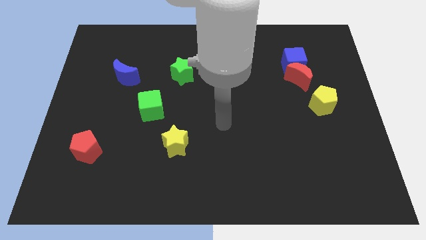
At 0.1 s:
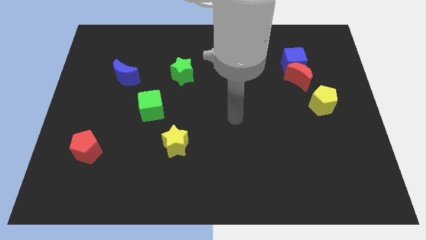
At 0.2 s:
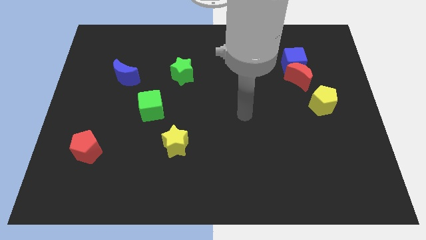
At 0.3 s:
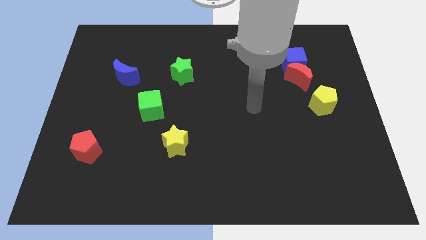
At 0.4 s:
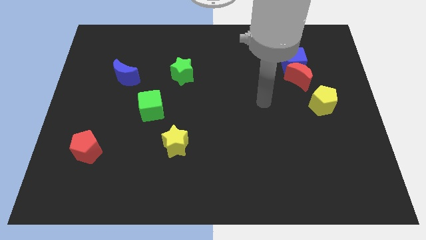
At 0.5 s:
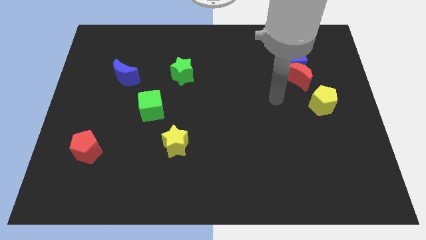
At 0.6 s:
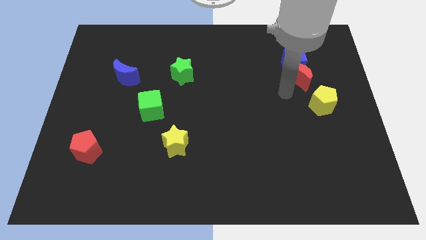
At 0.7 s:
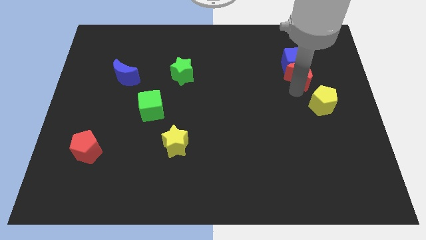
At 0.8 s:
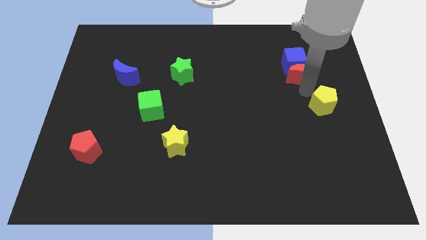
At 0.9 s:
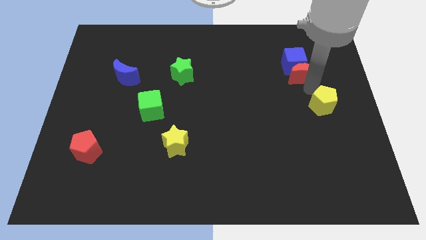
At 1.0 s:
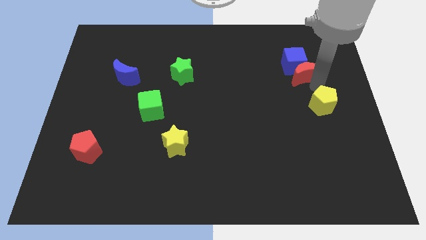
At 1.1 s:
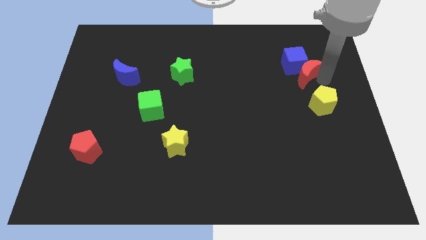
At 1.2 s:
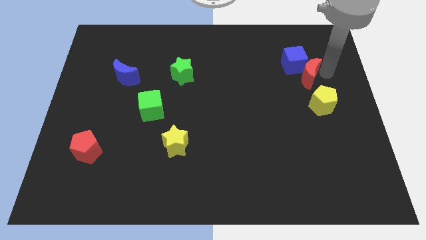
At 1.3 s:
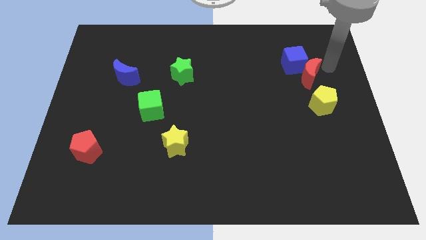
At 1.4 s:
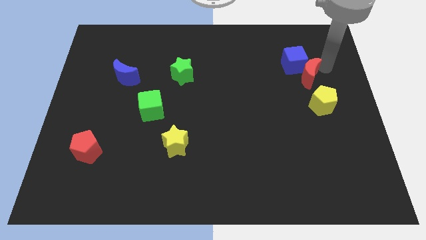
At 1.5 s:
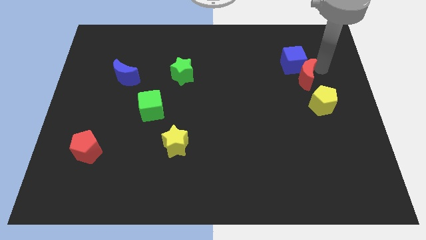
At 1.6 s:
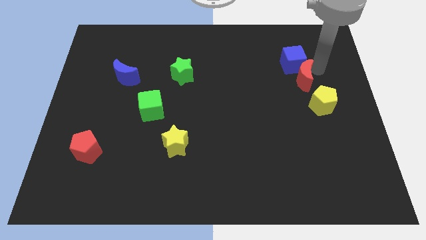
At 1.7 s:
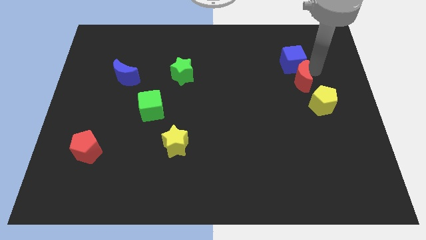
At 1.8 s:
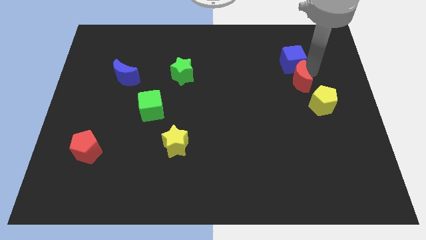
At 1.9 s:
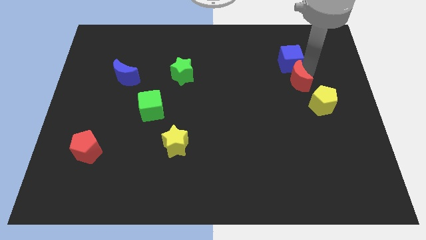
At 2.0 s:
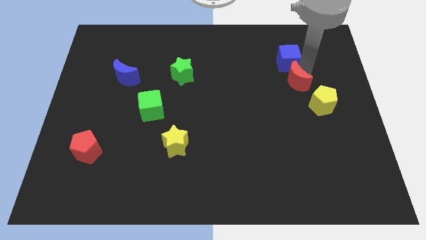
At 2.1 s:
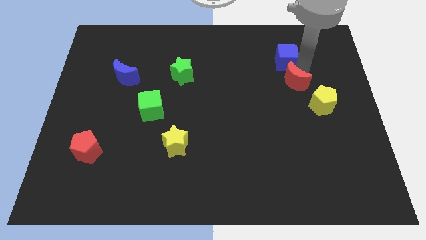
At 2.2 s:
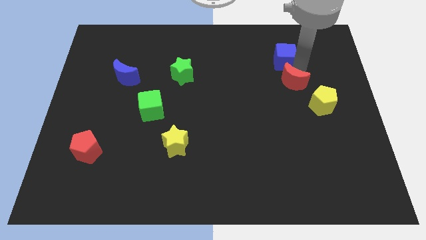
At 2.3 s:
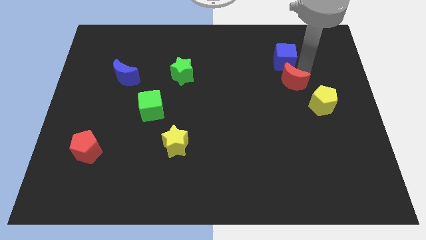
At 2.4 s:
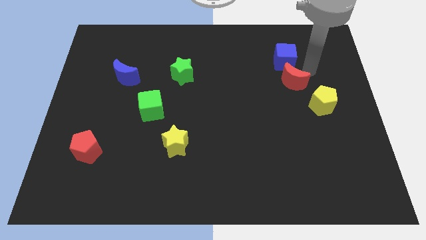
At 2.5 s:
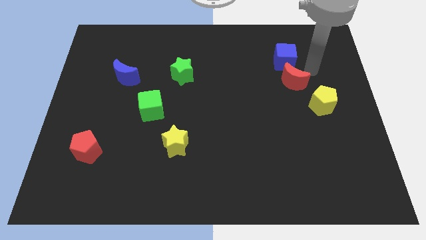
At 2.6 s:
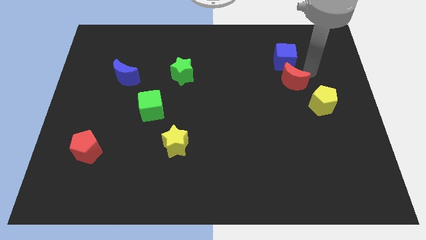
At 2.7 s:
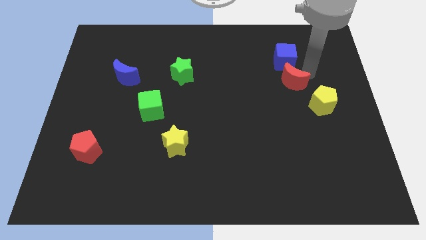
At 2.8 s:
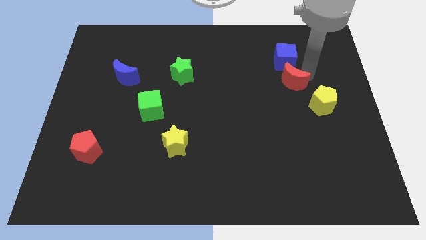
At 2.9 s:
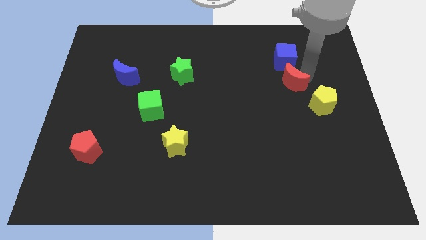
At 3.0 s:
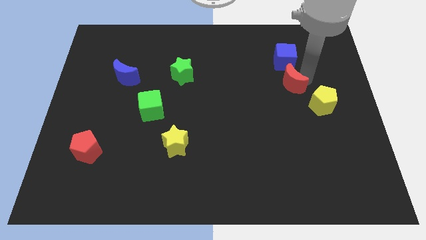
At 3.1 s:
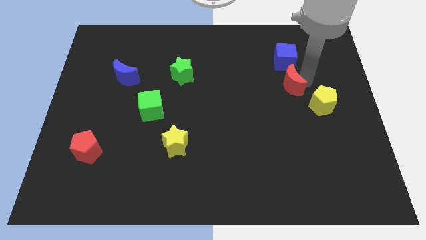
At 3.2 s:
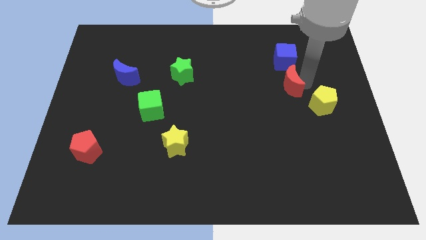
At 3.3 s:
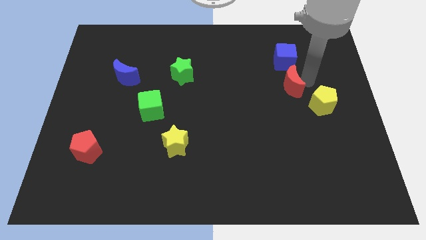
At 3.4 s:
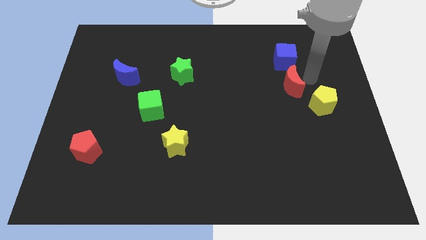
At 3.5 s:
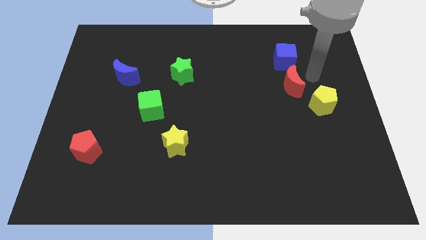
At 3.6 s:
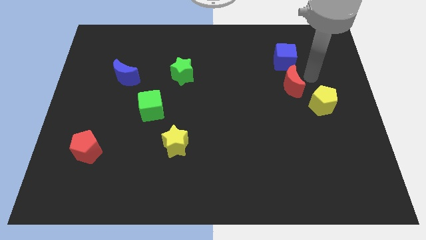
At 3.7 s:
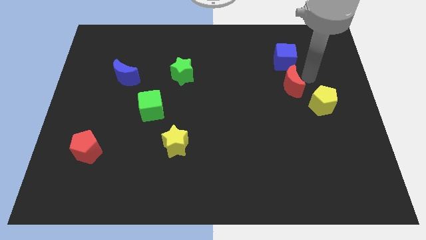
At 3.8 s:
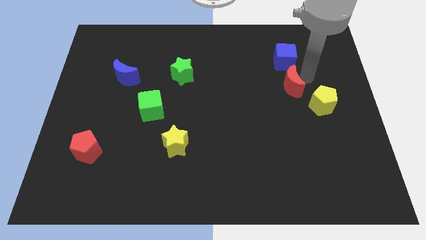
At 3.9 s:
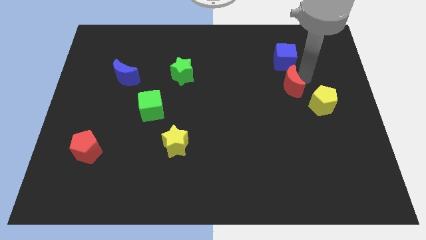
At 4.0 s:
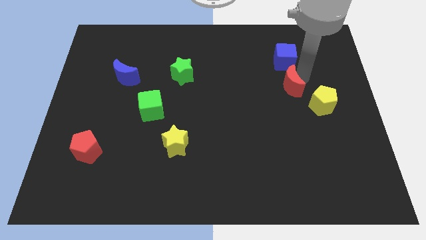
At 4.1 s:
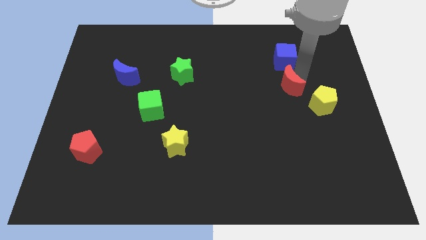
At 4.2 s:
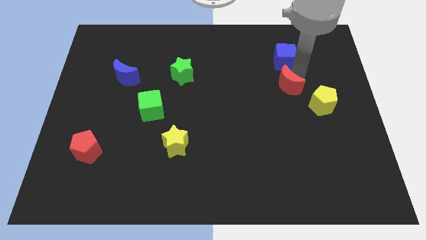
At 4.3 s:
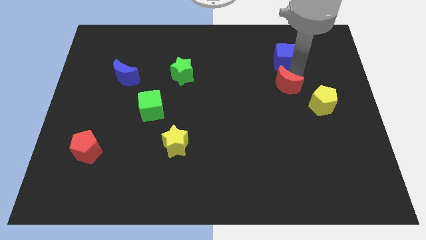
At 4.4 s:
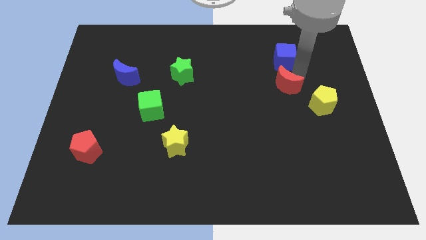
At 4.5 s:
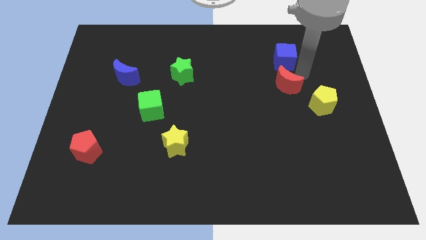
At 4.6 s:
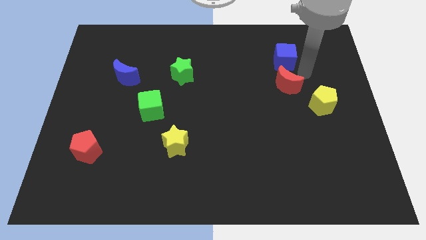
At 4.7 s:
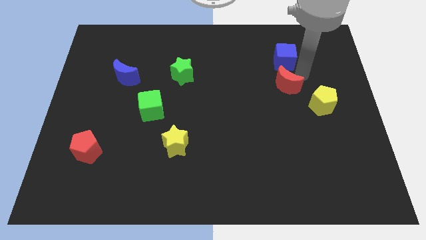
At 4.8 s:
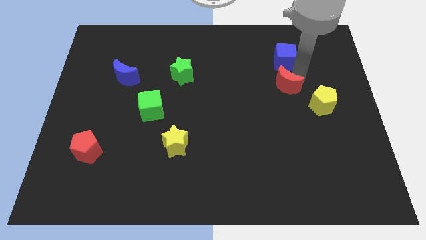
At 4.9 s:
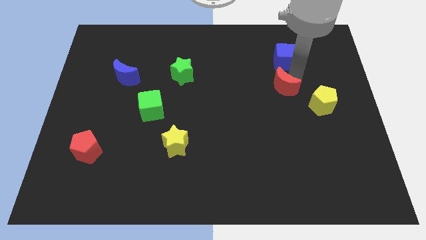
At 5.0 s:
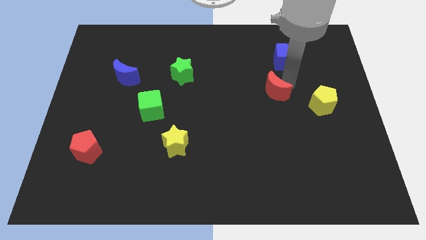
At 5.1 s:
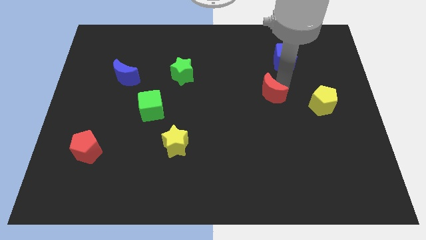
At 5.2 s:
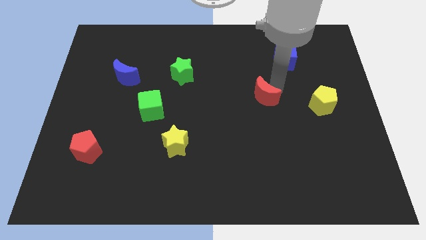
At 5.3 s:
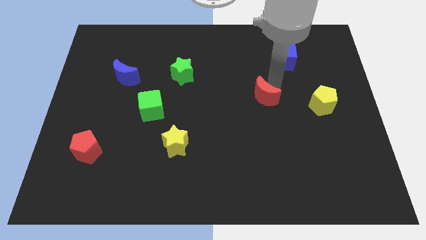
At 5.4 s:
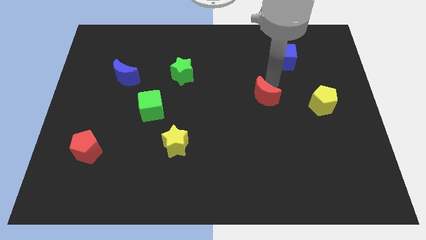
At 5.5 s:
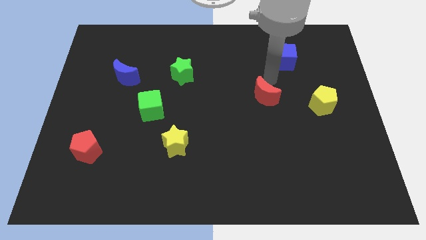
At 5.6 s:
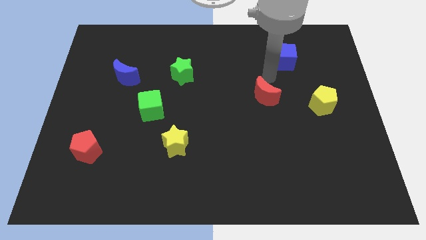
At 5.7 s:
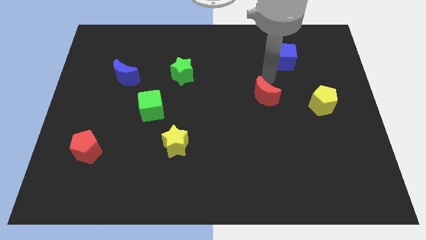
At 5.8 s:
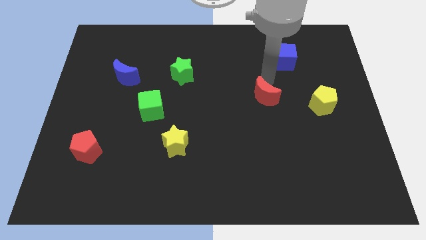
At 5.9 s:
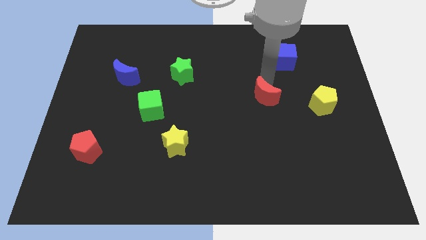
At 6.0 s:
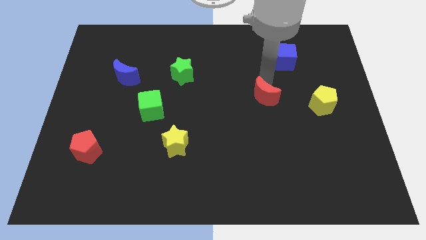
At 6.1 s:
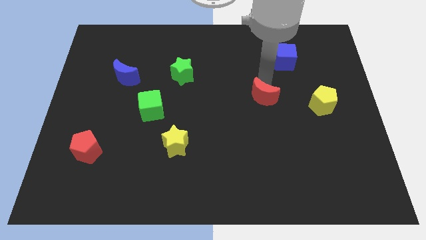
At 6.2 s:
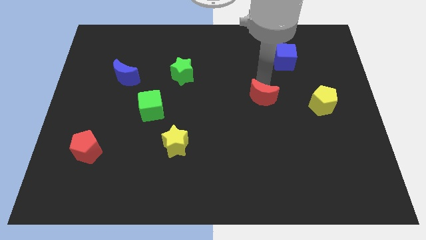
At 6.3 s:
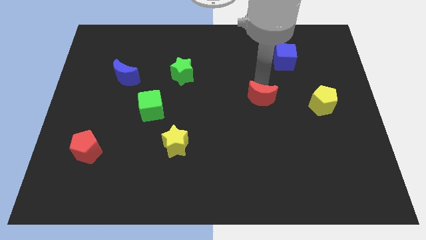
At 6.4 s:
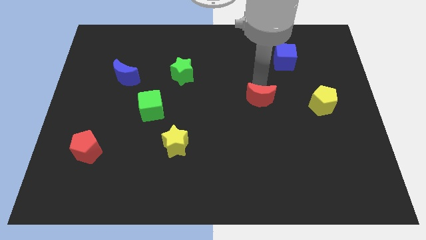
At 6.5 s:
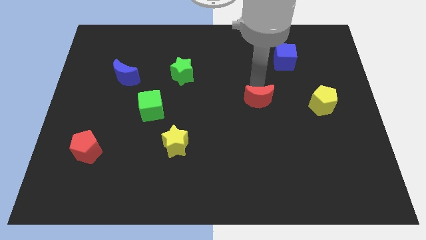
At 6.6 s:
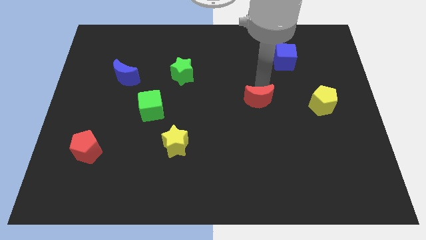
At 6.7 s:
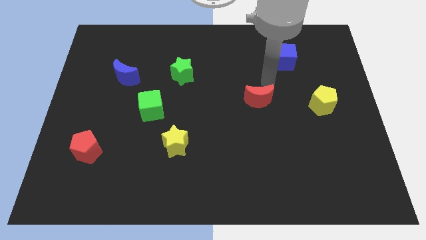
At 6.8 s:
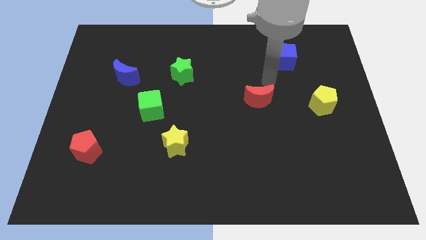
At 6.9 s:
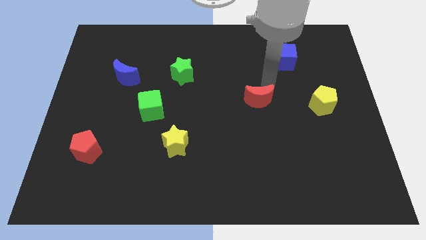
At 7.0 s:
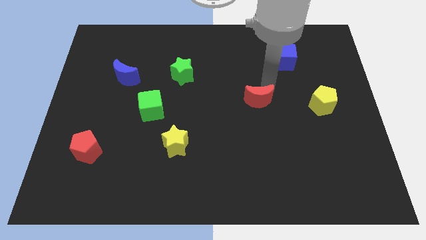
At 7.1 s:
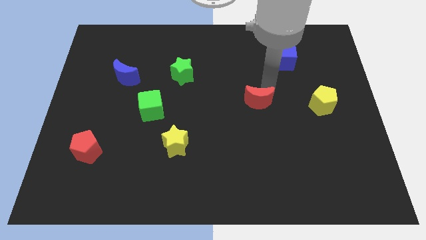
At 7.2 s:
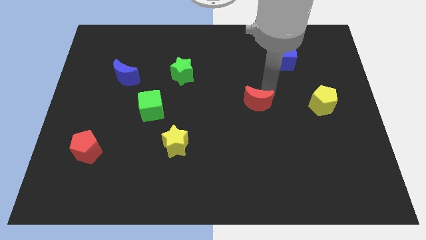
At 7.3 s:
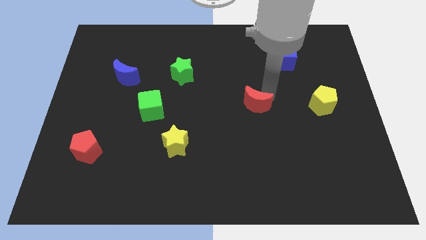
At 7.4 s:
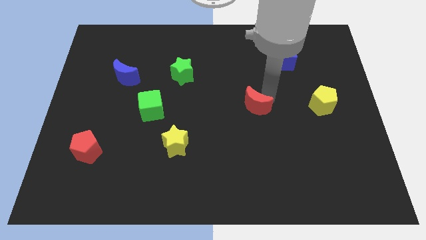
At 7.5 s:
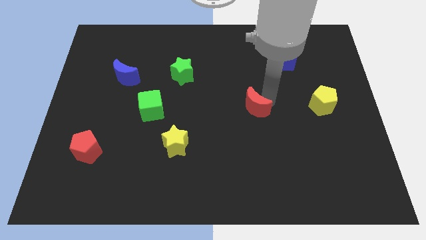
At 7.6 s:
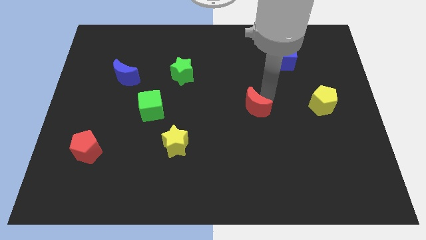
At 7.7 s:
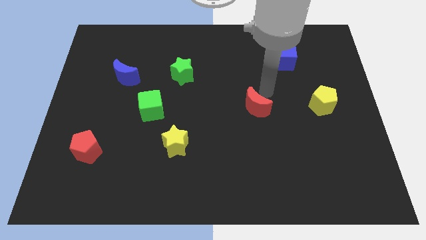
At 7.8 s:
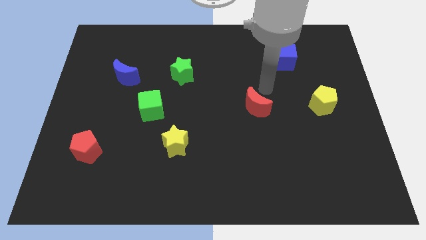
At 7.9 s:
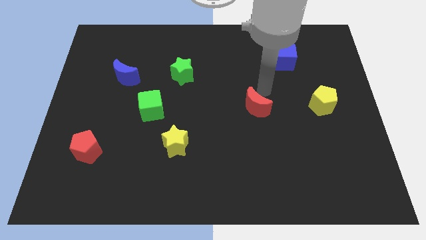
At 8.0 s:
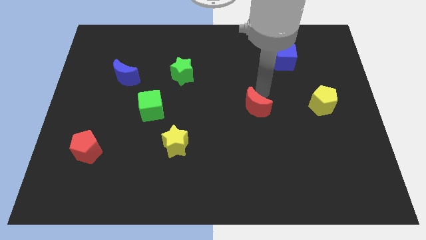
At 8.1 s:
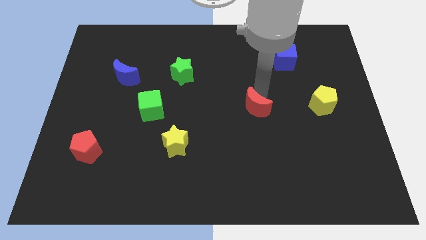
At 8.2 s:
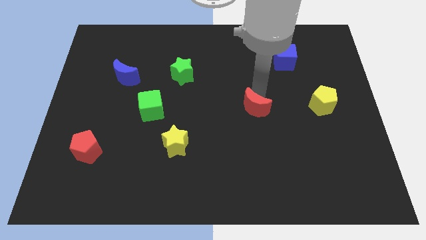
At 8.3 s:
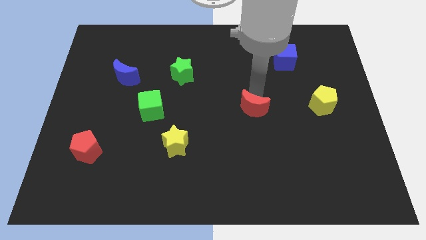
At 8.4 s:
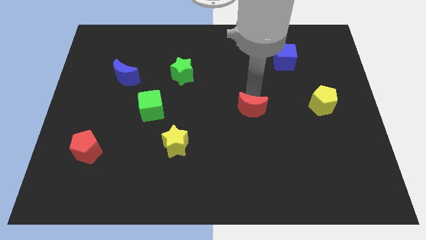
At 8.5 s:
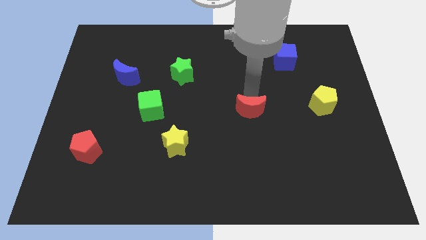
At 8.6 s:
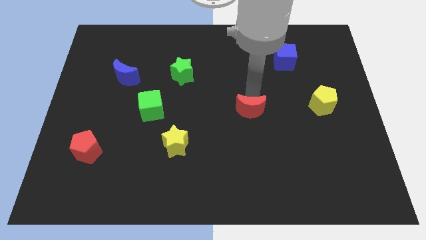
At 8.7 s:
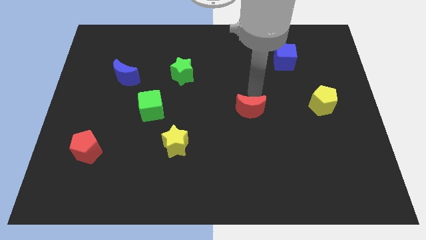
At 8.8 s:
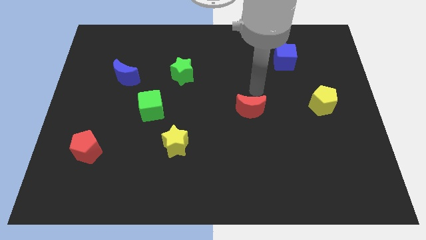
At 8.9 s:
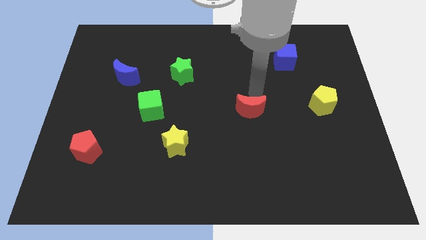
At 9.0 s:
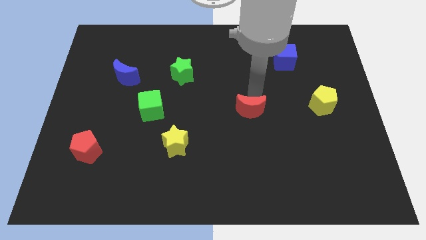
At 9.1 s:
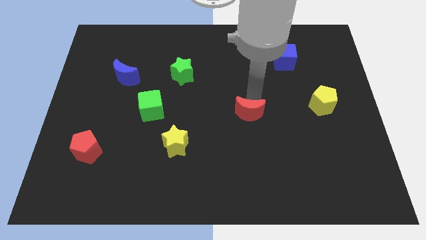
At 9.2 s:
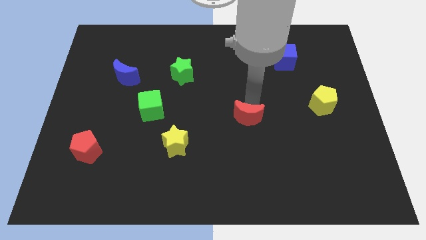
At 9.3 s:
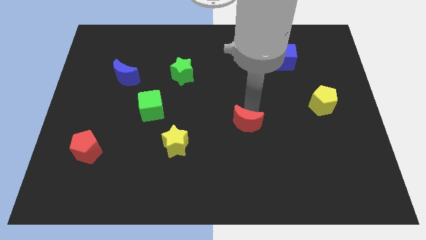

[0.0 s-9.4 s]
slide the red moon downwards and left diagonally
